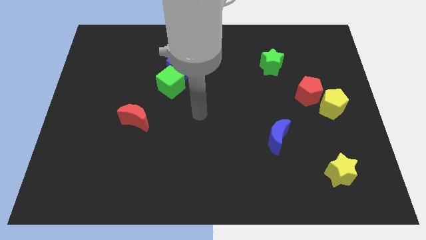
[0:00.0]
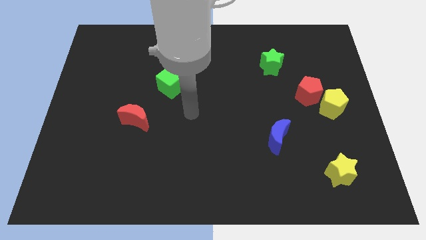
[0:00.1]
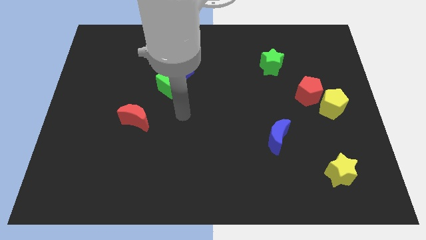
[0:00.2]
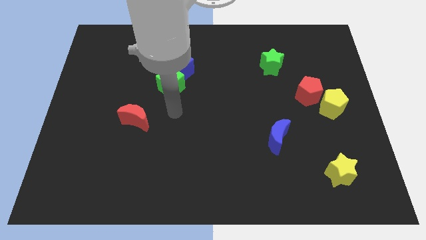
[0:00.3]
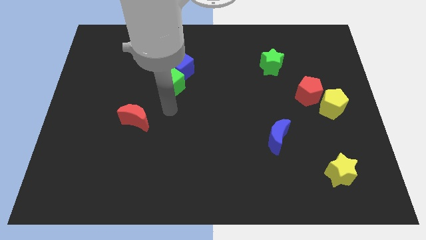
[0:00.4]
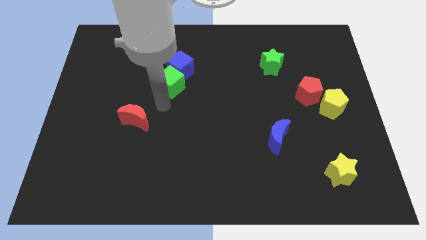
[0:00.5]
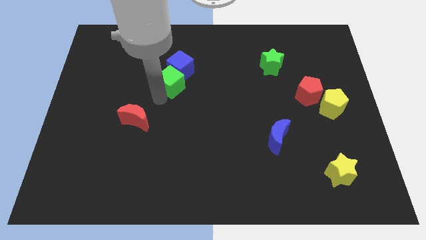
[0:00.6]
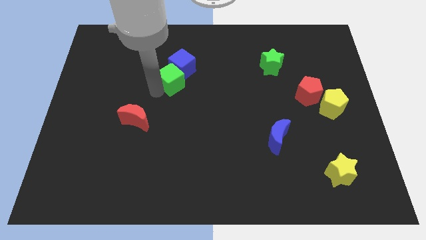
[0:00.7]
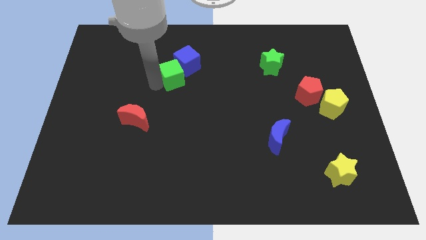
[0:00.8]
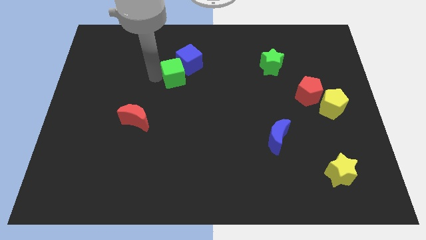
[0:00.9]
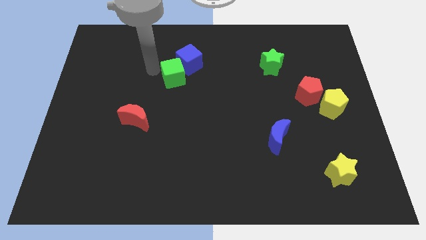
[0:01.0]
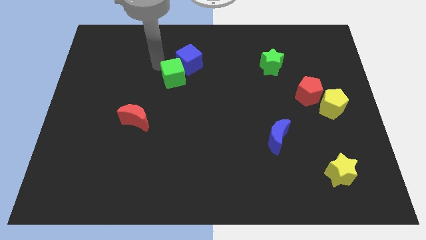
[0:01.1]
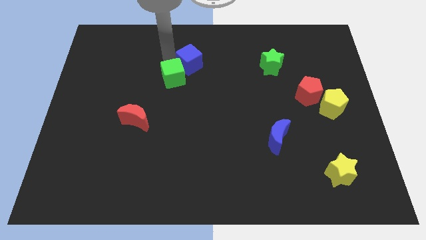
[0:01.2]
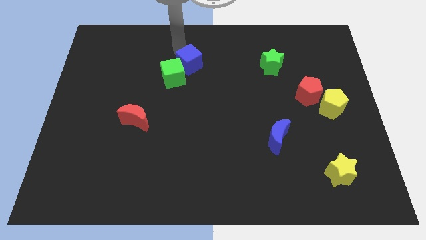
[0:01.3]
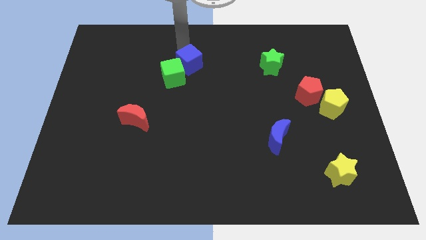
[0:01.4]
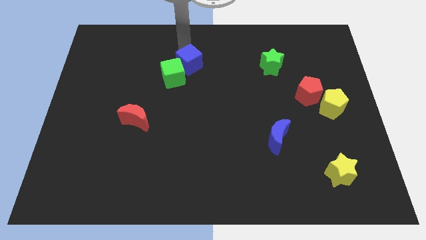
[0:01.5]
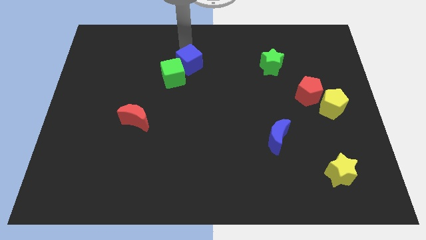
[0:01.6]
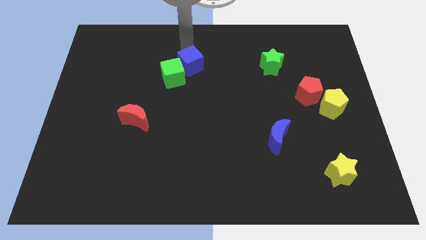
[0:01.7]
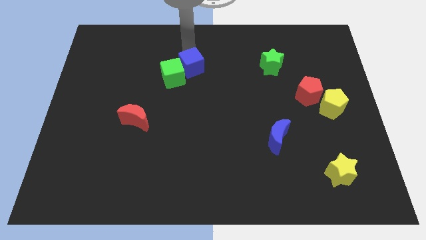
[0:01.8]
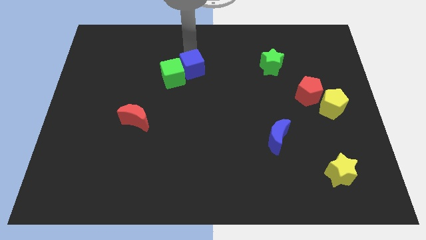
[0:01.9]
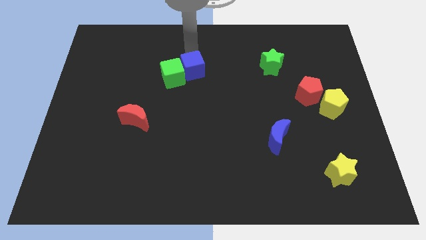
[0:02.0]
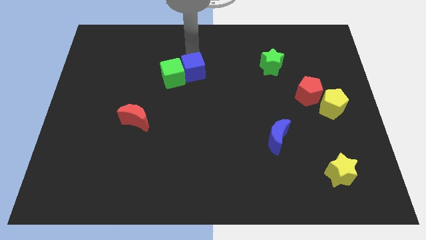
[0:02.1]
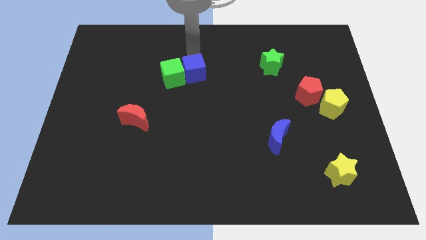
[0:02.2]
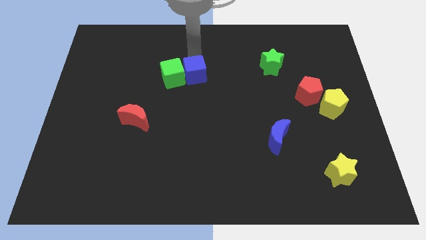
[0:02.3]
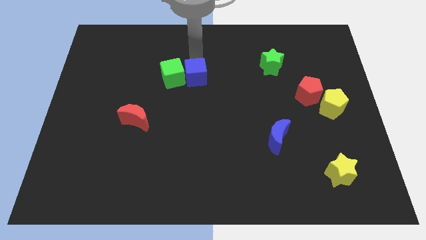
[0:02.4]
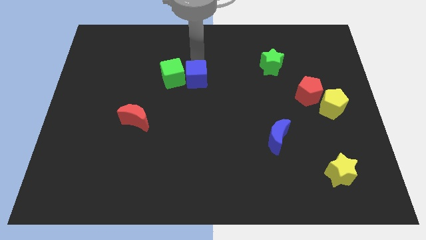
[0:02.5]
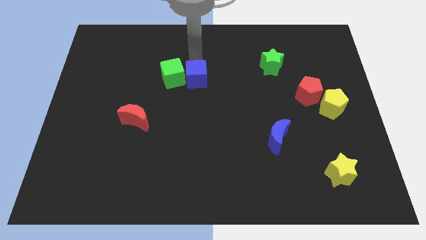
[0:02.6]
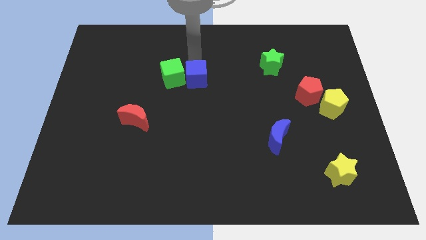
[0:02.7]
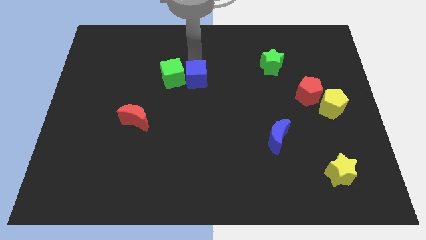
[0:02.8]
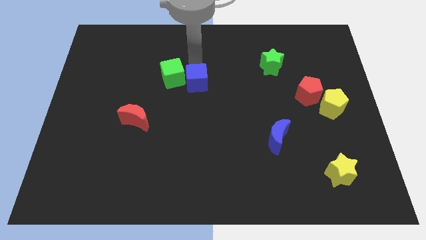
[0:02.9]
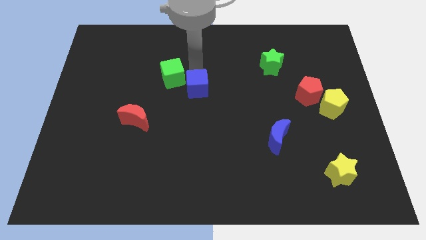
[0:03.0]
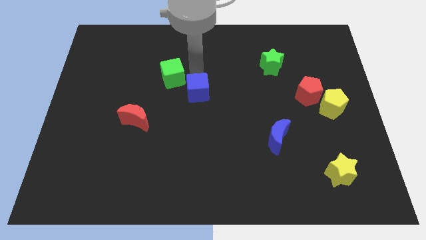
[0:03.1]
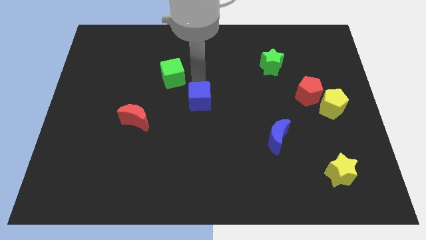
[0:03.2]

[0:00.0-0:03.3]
slide the blue cube a bit downwards

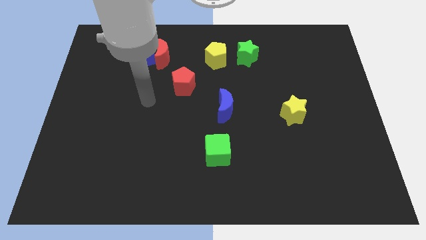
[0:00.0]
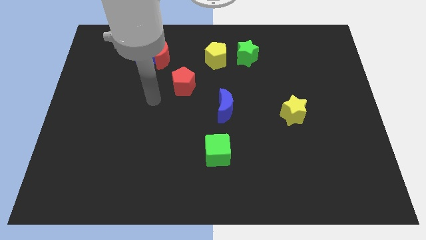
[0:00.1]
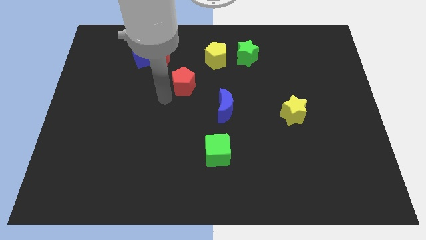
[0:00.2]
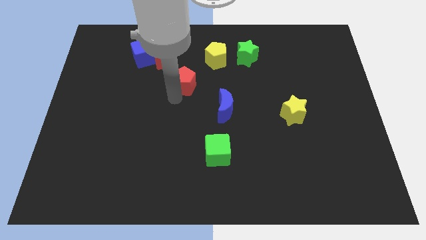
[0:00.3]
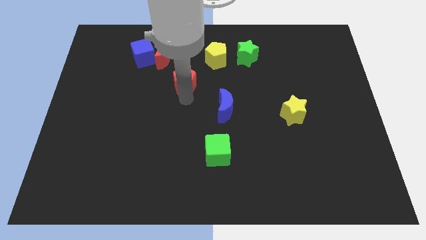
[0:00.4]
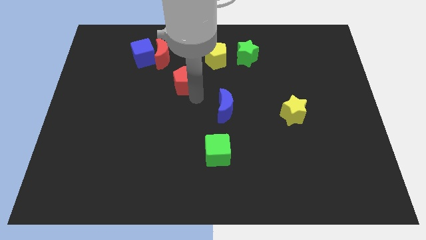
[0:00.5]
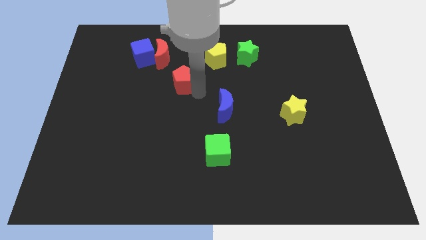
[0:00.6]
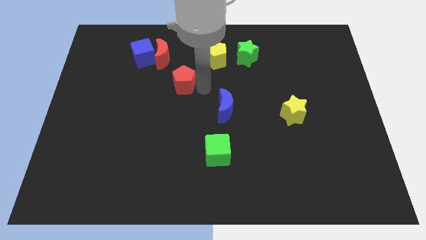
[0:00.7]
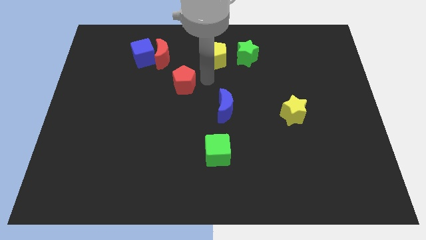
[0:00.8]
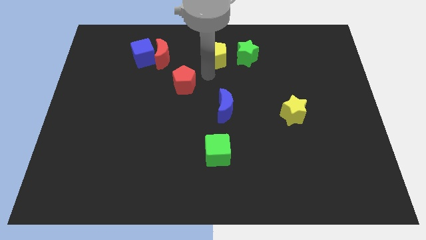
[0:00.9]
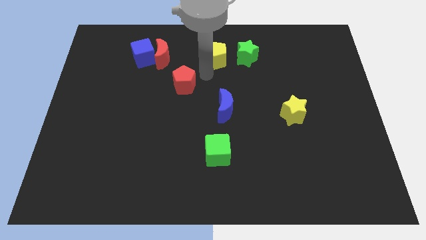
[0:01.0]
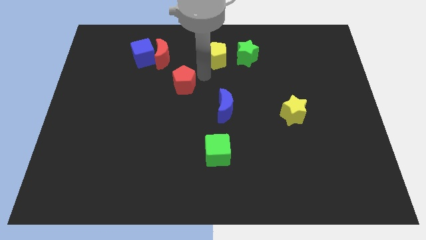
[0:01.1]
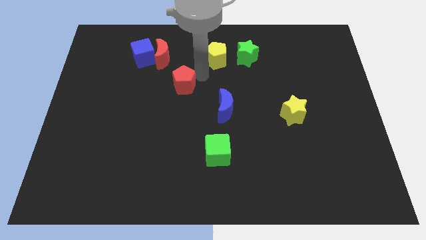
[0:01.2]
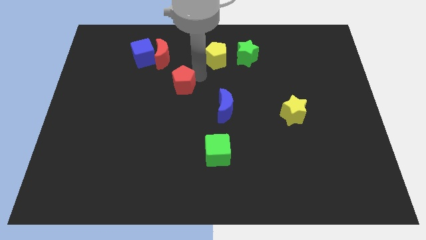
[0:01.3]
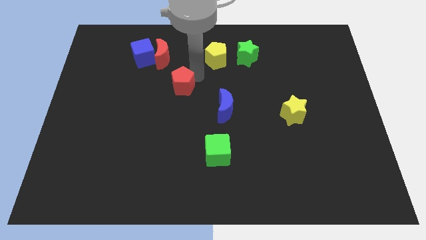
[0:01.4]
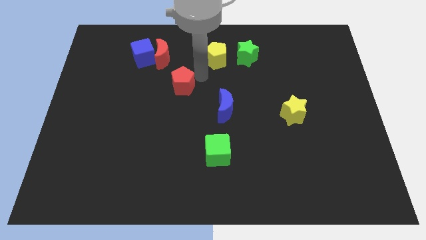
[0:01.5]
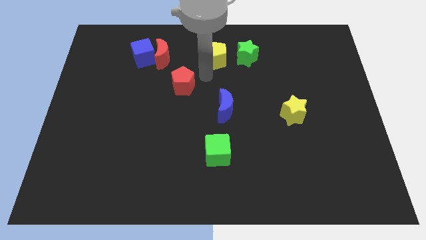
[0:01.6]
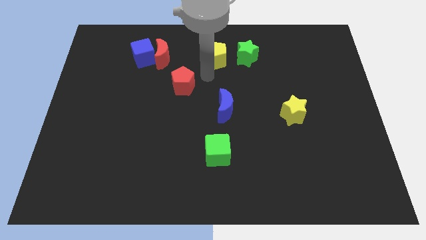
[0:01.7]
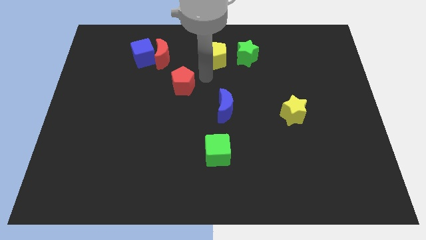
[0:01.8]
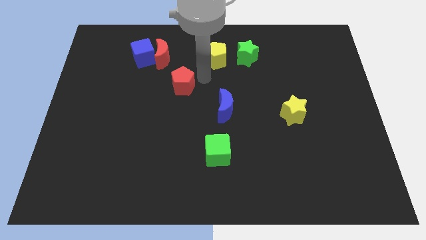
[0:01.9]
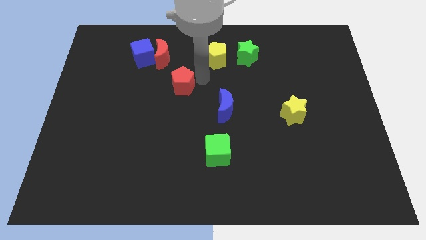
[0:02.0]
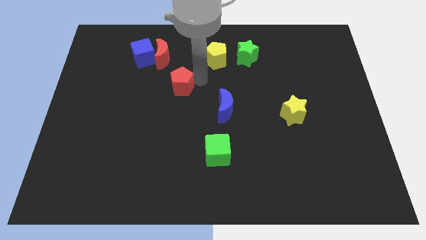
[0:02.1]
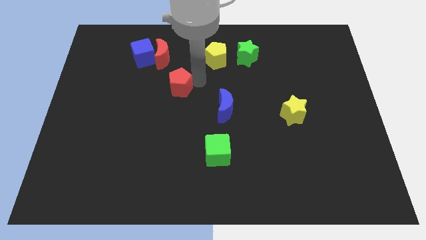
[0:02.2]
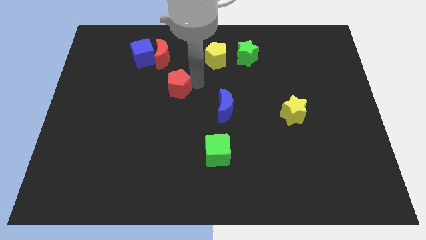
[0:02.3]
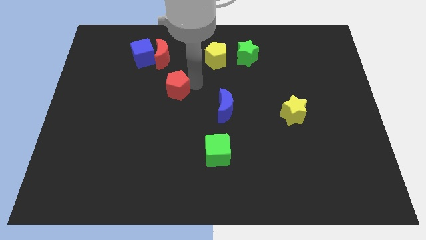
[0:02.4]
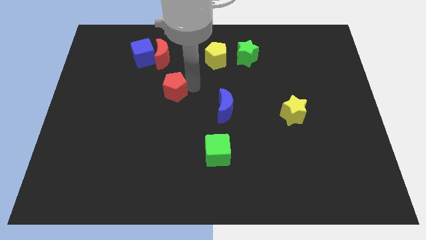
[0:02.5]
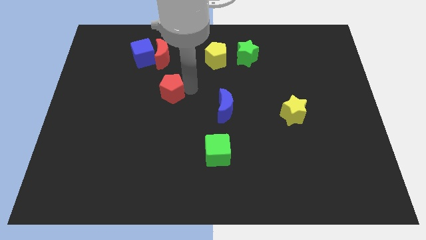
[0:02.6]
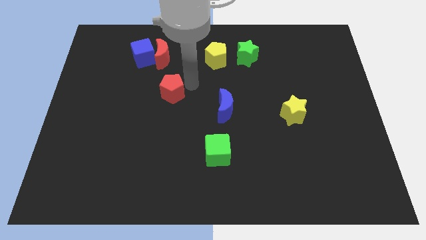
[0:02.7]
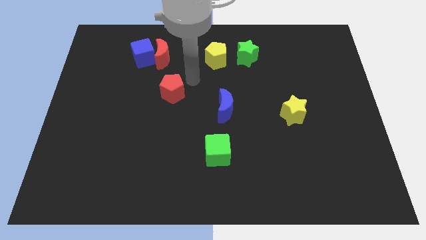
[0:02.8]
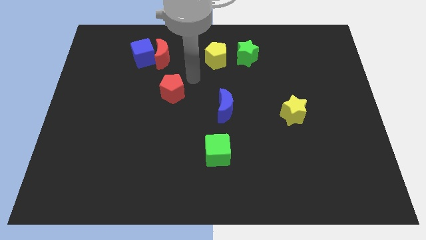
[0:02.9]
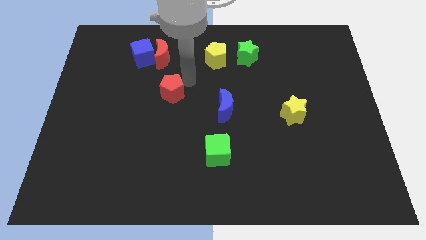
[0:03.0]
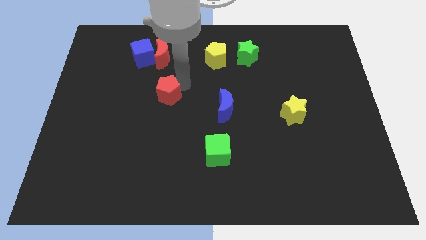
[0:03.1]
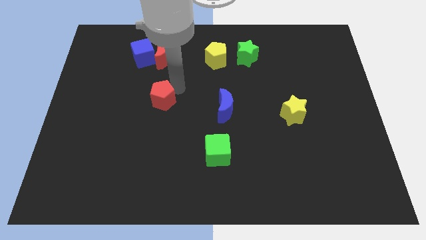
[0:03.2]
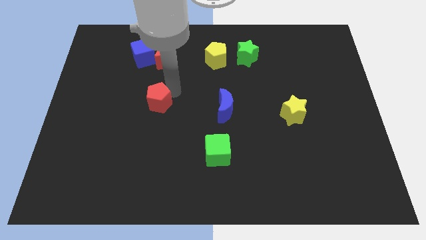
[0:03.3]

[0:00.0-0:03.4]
move the red pentagon down and to the left diagonally somewhat

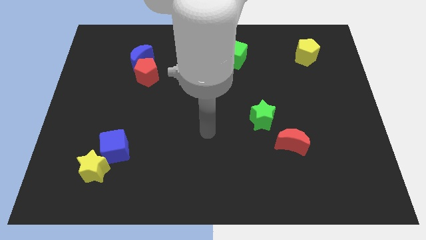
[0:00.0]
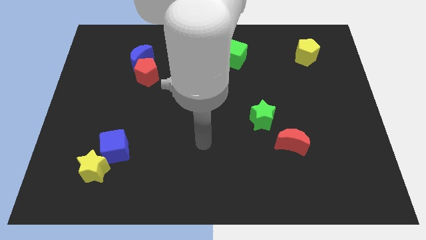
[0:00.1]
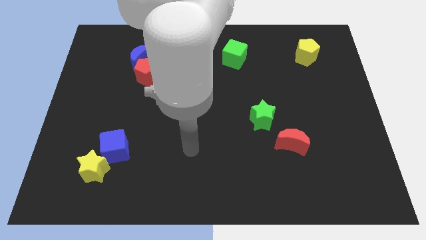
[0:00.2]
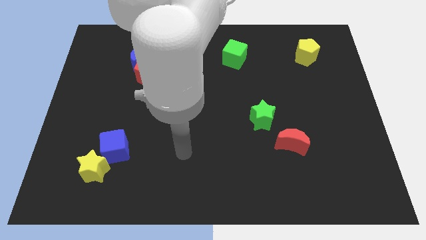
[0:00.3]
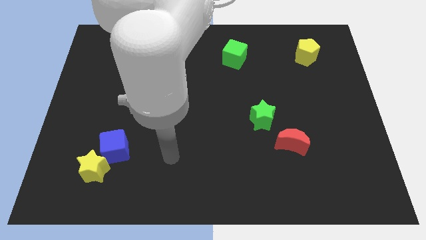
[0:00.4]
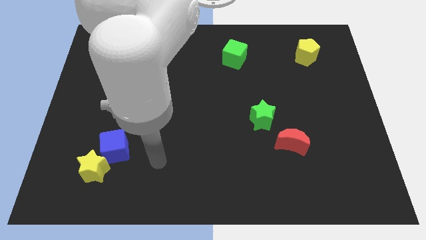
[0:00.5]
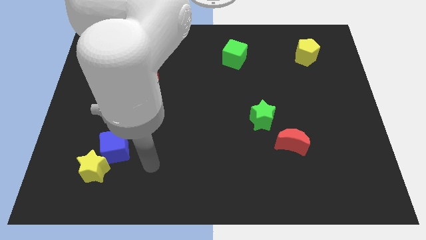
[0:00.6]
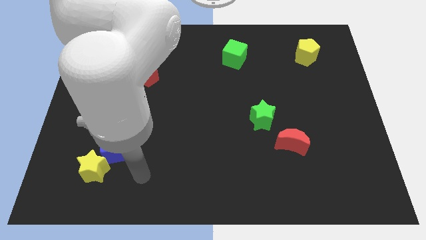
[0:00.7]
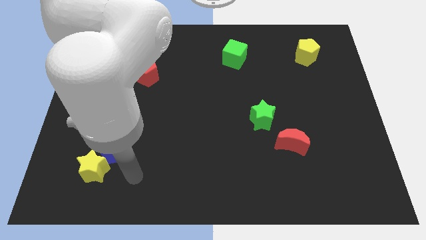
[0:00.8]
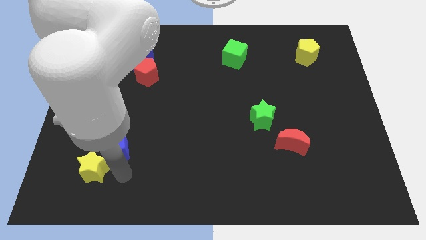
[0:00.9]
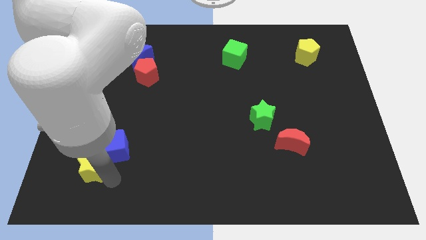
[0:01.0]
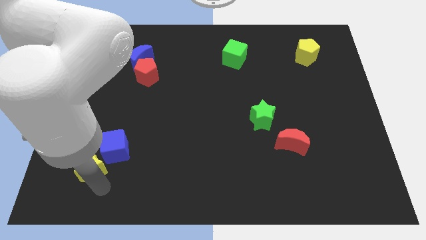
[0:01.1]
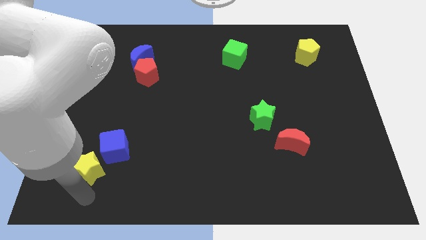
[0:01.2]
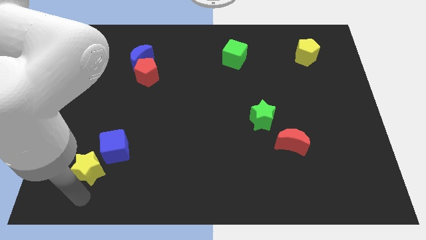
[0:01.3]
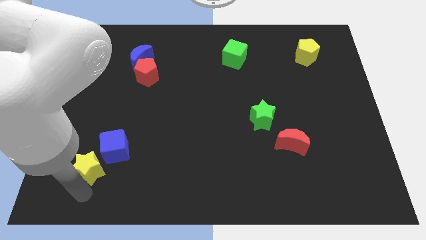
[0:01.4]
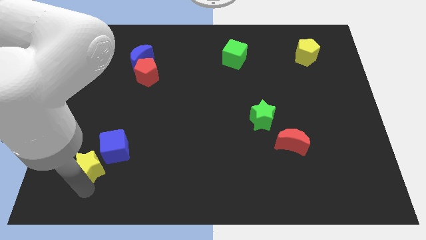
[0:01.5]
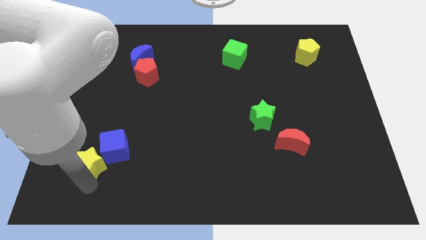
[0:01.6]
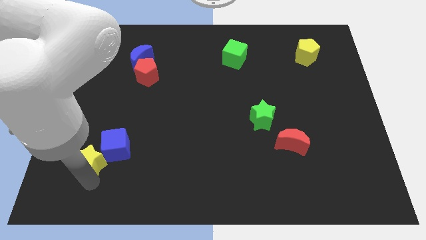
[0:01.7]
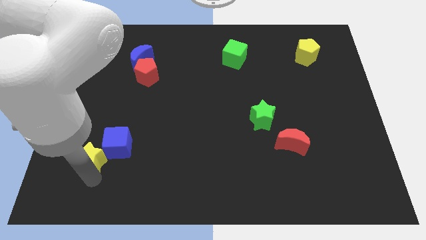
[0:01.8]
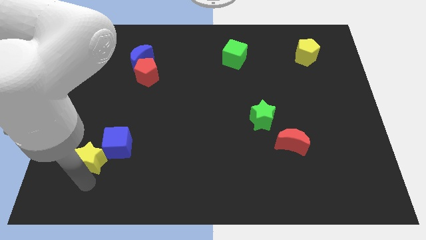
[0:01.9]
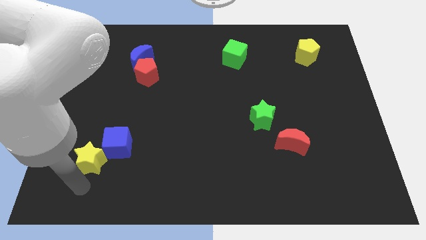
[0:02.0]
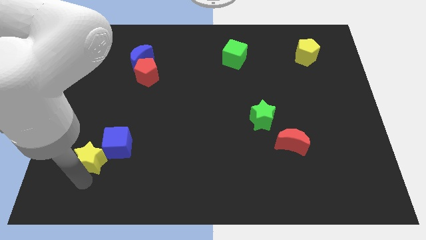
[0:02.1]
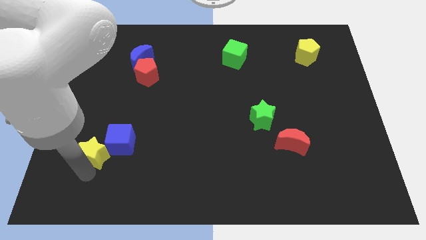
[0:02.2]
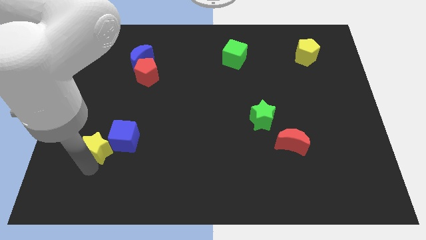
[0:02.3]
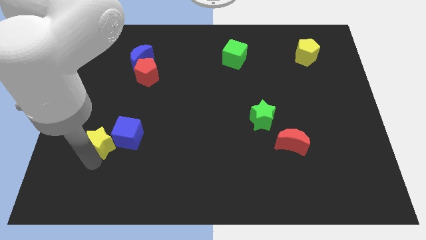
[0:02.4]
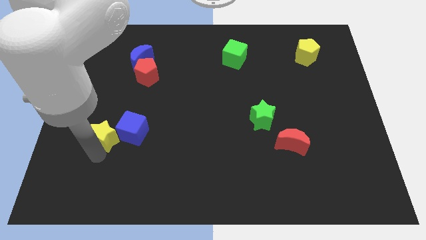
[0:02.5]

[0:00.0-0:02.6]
push the yellow star a little upwards
